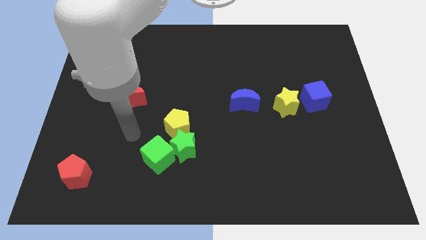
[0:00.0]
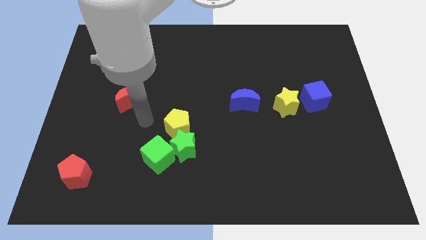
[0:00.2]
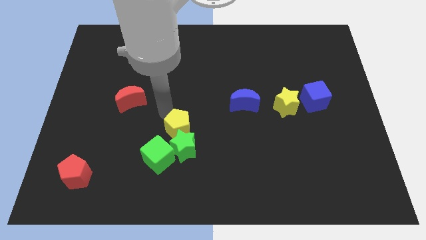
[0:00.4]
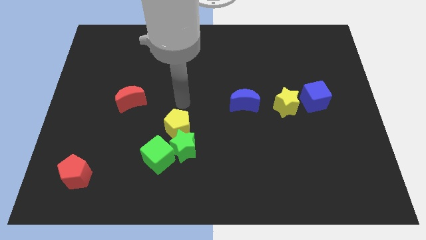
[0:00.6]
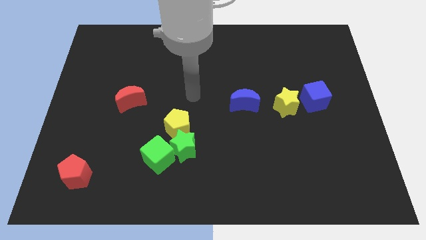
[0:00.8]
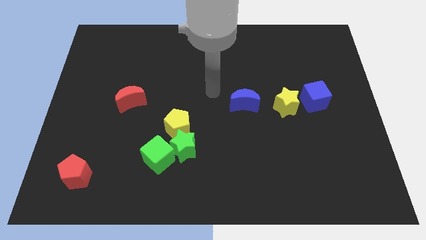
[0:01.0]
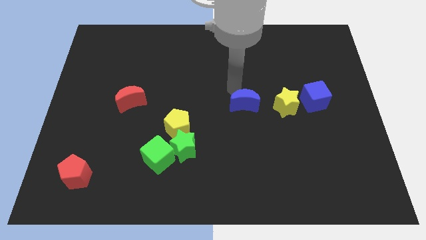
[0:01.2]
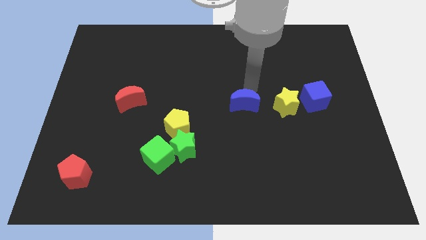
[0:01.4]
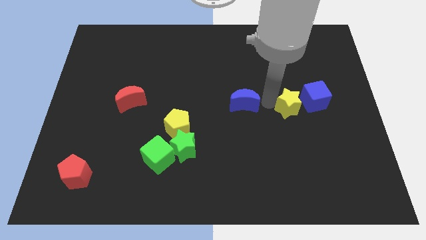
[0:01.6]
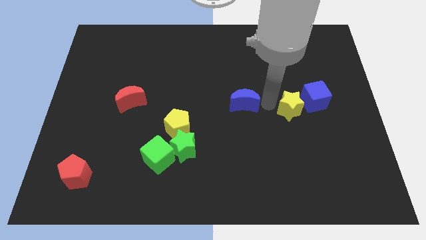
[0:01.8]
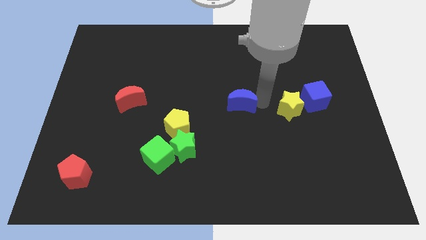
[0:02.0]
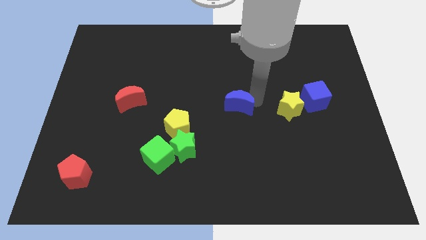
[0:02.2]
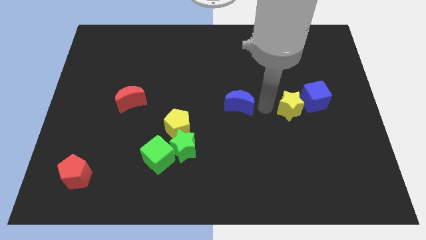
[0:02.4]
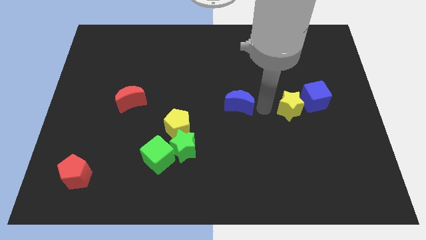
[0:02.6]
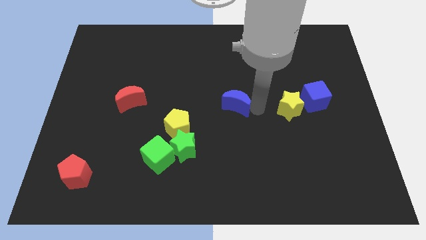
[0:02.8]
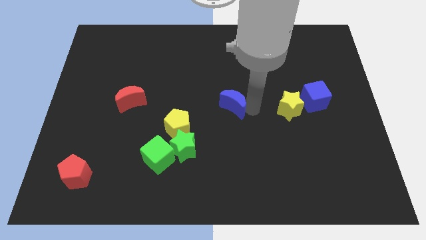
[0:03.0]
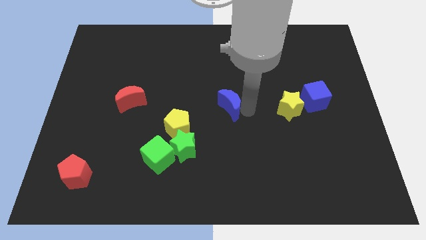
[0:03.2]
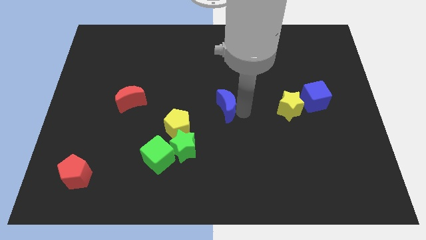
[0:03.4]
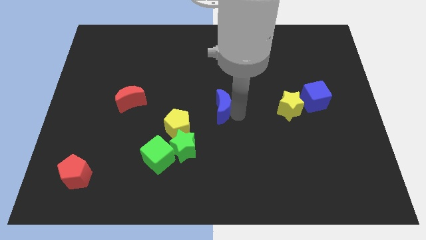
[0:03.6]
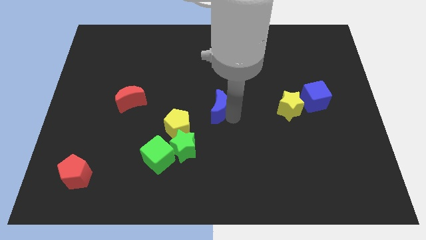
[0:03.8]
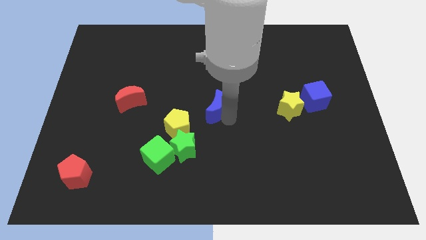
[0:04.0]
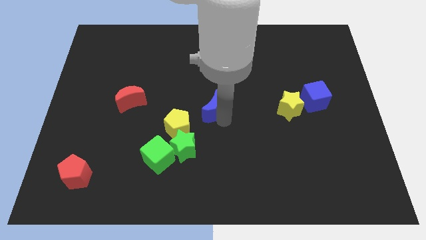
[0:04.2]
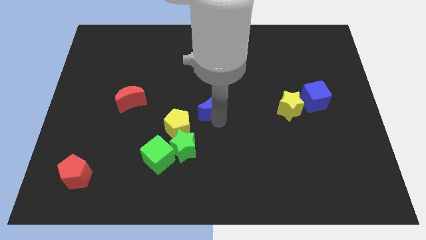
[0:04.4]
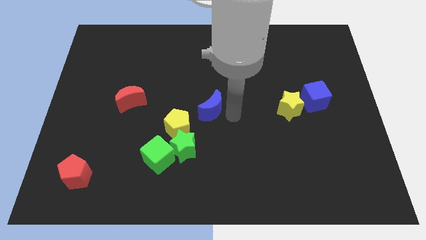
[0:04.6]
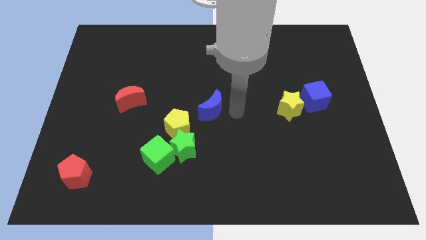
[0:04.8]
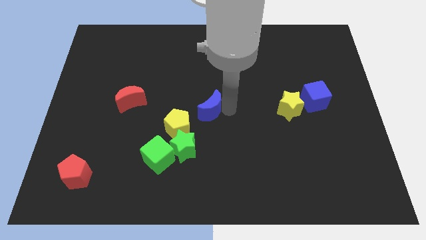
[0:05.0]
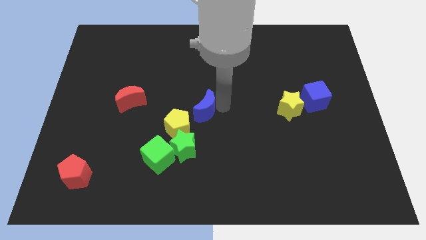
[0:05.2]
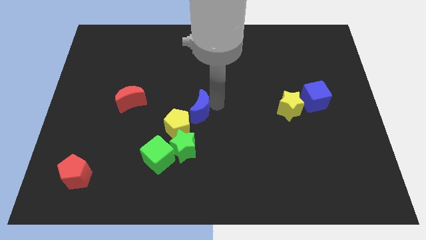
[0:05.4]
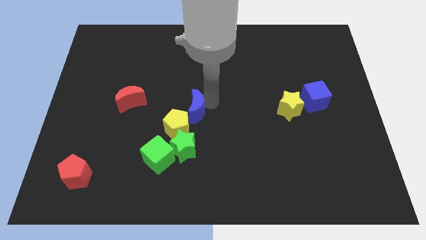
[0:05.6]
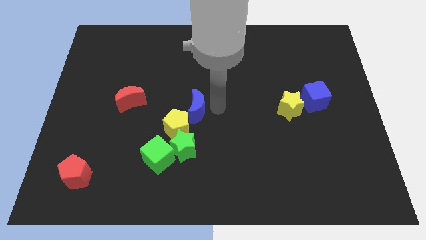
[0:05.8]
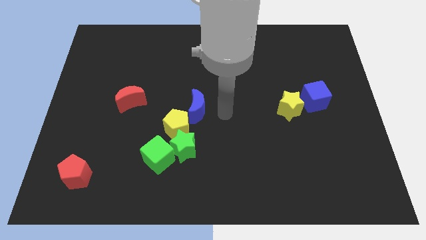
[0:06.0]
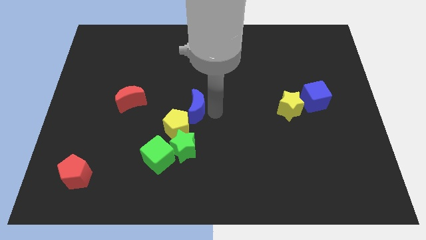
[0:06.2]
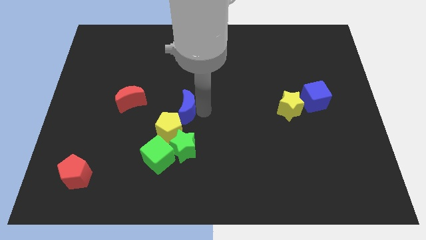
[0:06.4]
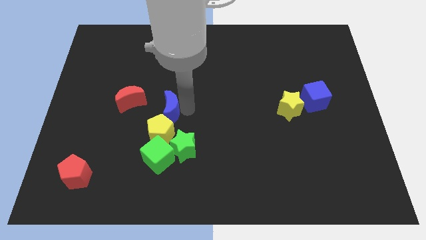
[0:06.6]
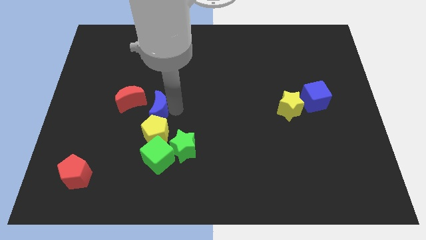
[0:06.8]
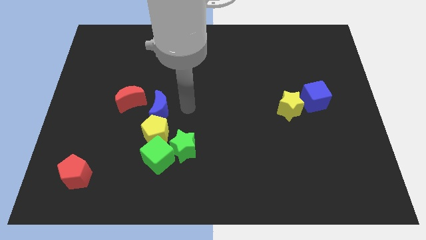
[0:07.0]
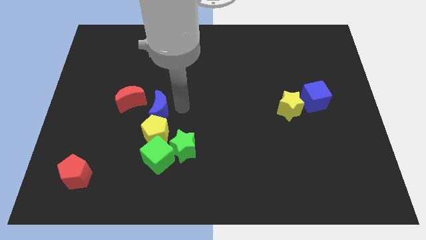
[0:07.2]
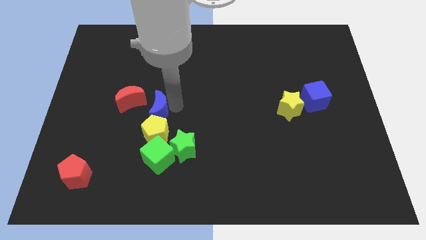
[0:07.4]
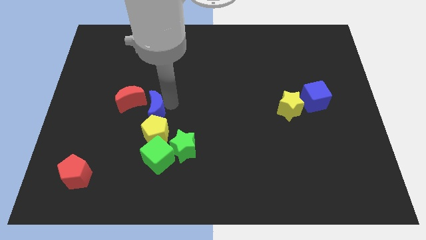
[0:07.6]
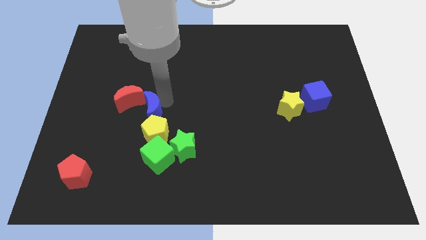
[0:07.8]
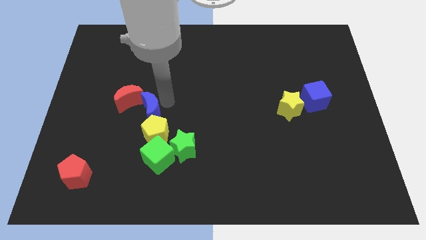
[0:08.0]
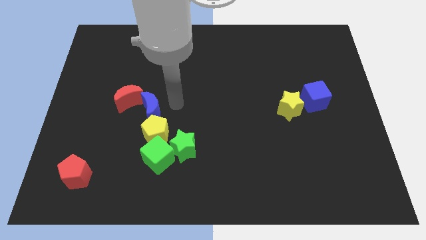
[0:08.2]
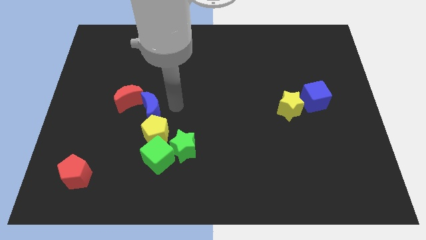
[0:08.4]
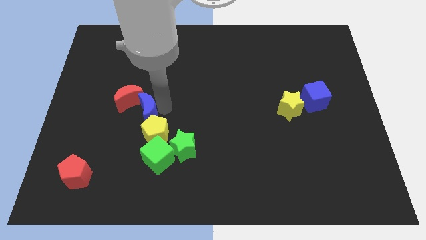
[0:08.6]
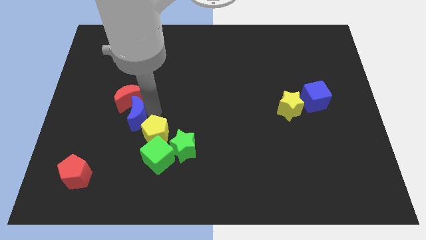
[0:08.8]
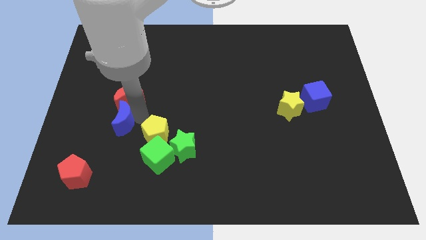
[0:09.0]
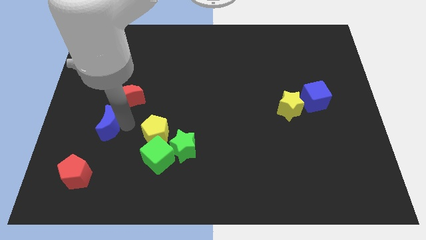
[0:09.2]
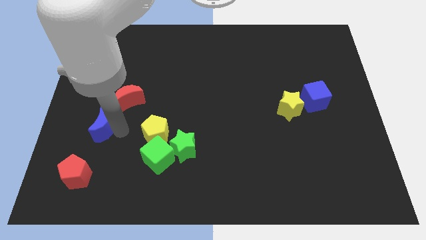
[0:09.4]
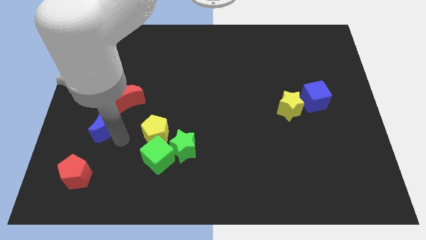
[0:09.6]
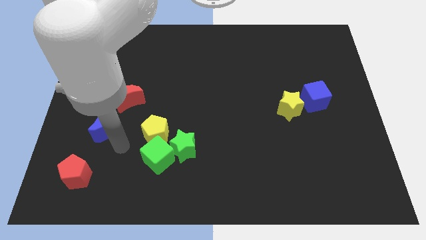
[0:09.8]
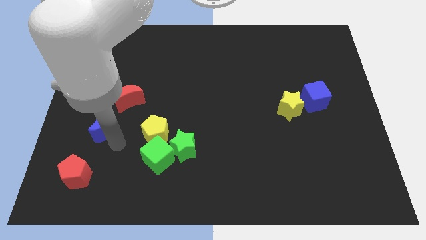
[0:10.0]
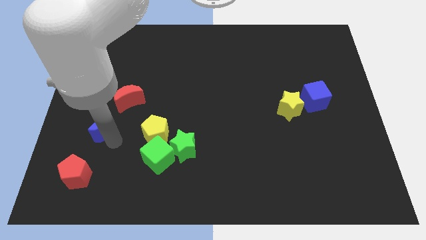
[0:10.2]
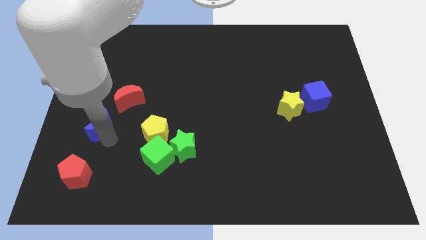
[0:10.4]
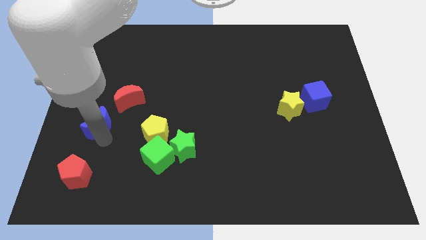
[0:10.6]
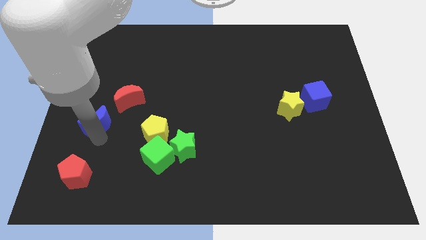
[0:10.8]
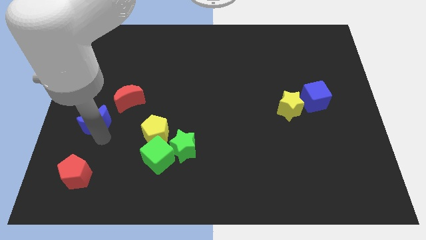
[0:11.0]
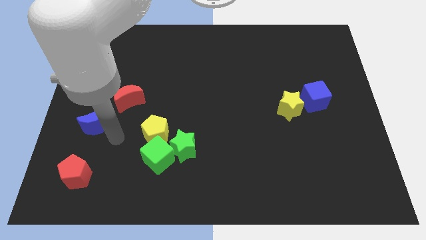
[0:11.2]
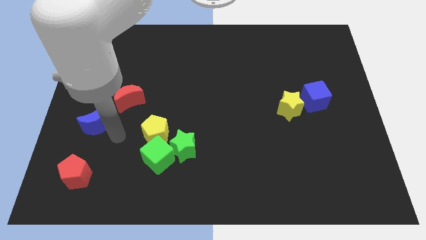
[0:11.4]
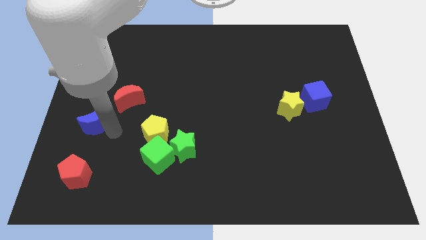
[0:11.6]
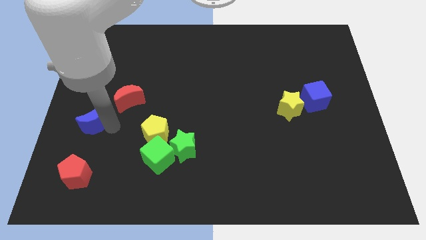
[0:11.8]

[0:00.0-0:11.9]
put the blue moon to the left side of the board

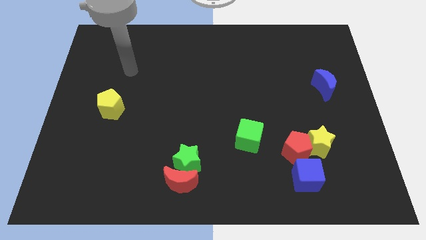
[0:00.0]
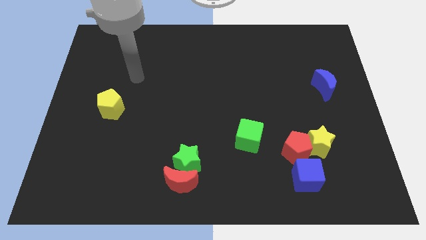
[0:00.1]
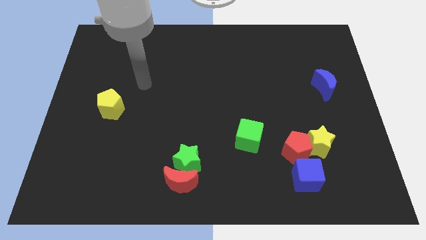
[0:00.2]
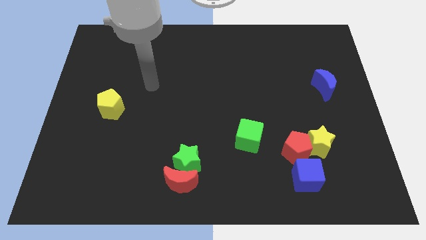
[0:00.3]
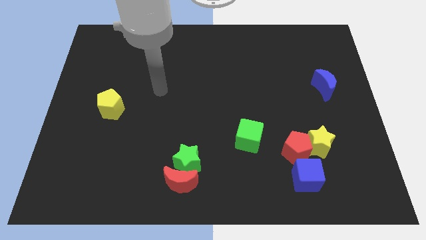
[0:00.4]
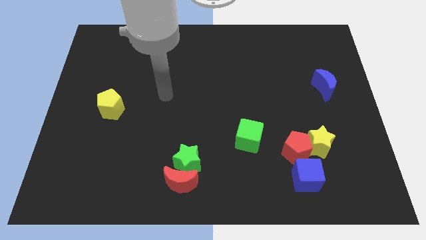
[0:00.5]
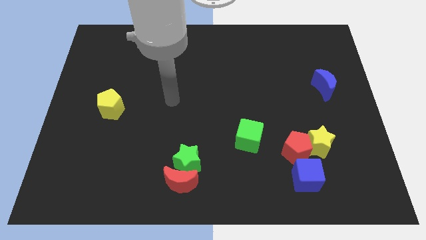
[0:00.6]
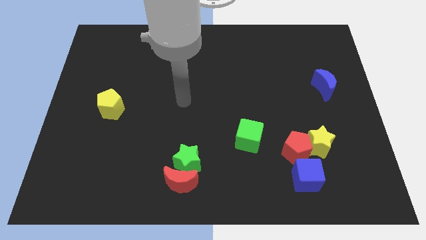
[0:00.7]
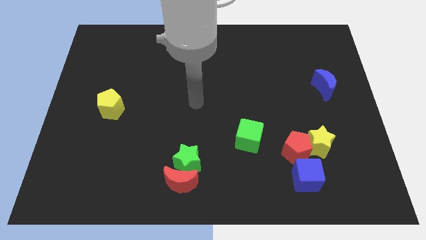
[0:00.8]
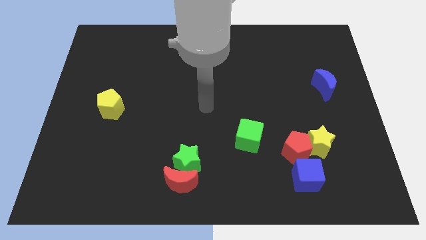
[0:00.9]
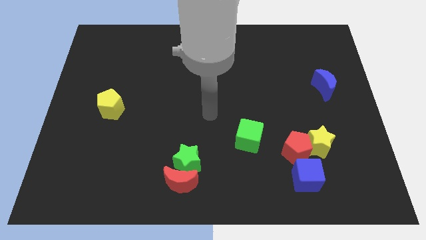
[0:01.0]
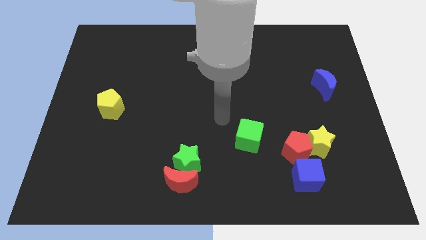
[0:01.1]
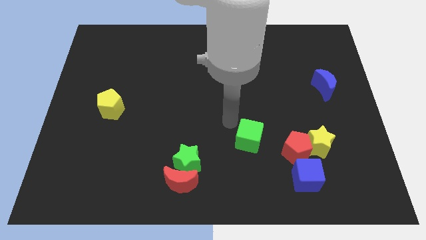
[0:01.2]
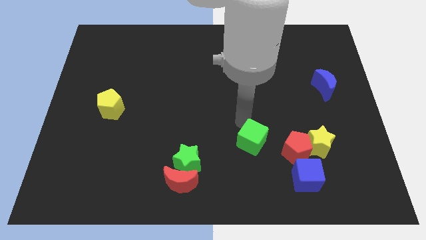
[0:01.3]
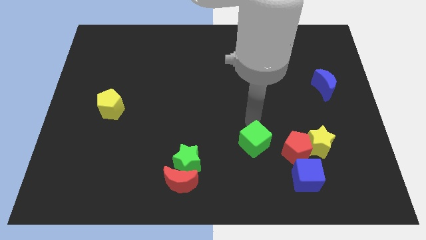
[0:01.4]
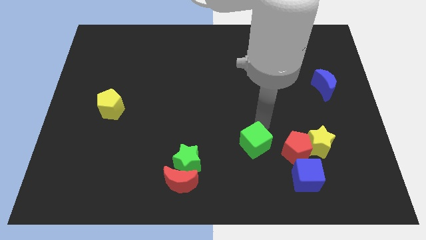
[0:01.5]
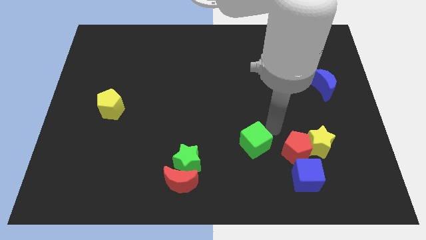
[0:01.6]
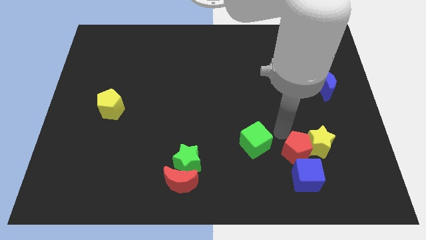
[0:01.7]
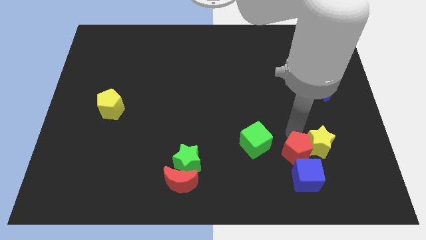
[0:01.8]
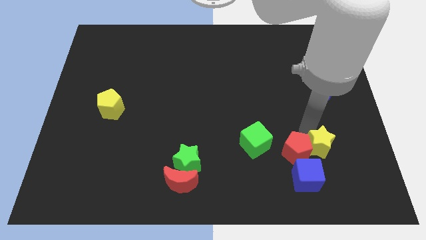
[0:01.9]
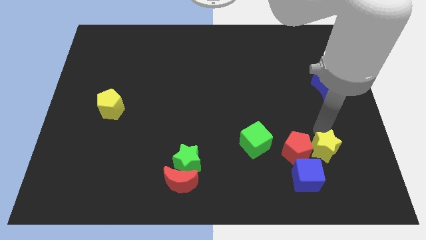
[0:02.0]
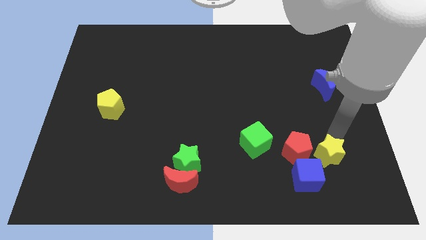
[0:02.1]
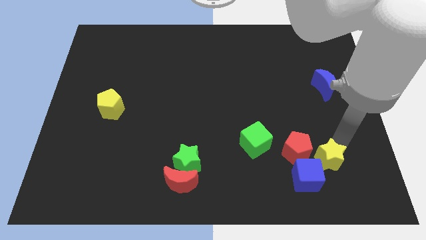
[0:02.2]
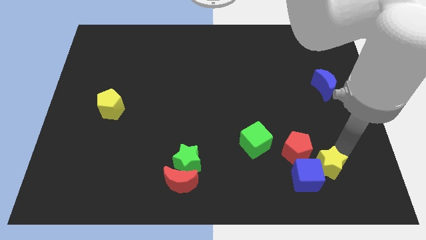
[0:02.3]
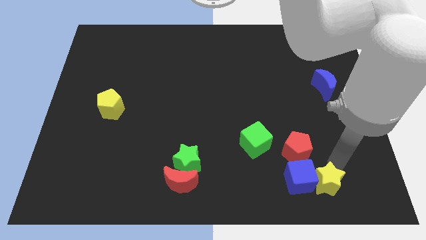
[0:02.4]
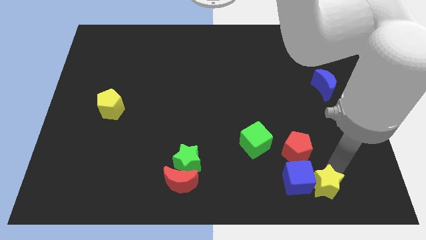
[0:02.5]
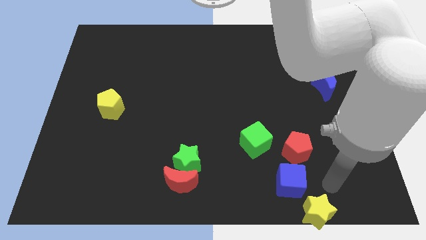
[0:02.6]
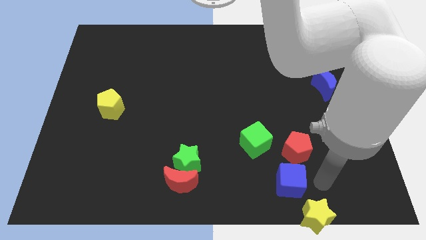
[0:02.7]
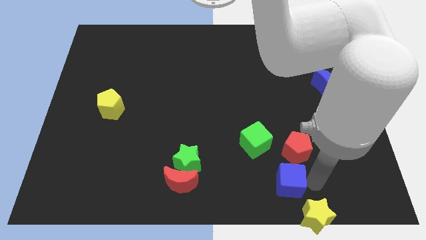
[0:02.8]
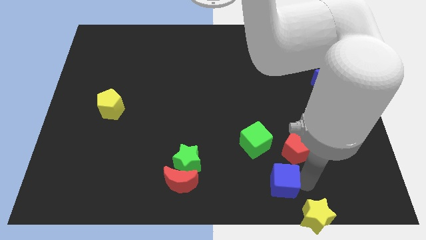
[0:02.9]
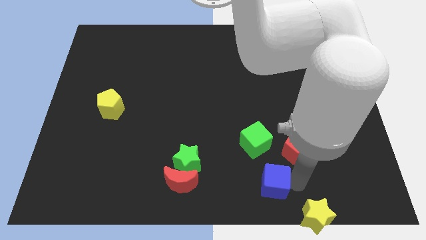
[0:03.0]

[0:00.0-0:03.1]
slide the blue cube to the bottom side
